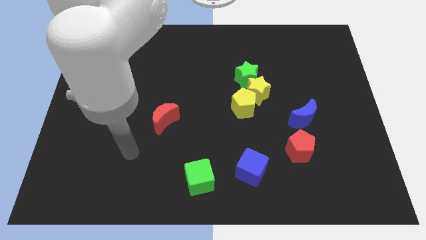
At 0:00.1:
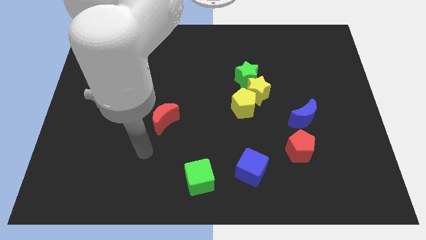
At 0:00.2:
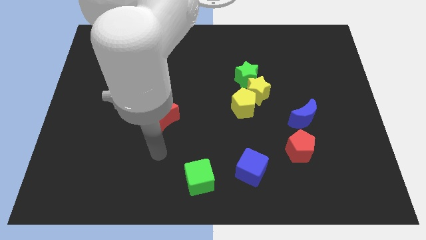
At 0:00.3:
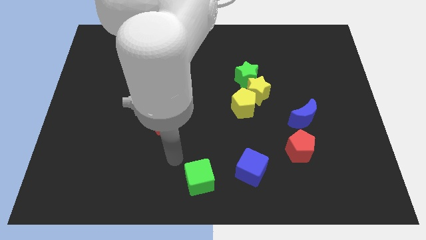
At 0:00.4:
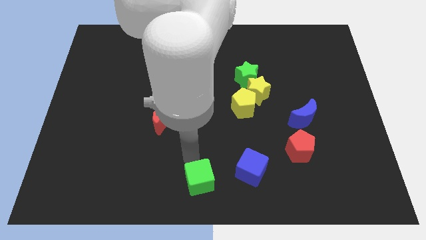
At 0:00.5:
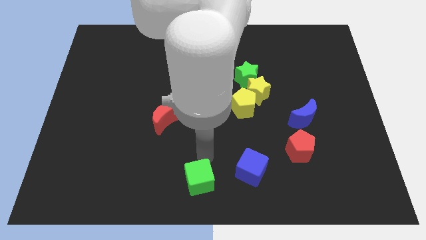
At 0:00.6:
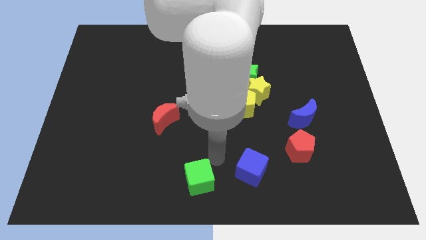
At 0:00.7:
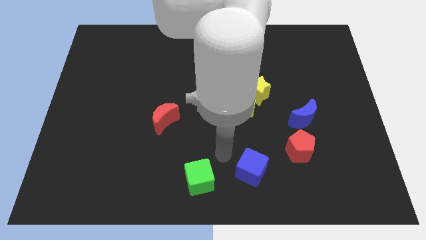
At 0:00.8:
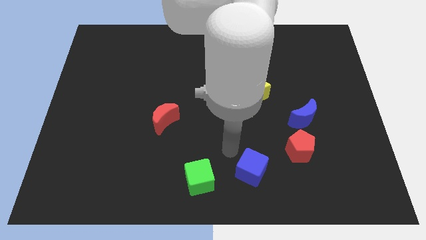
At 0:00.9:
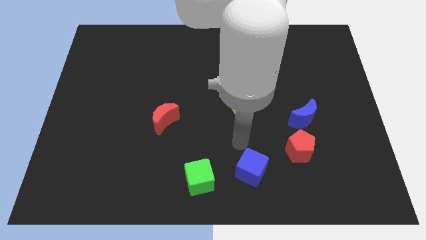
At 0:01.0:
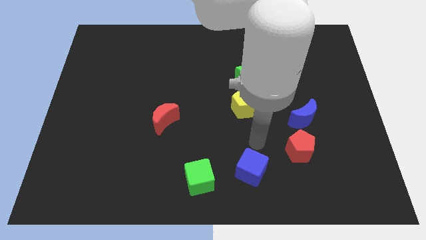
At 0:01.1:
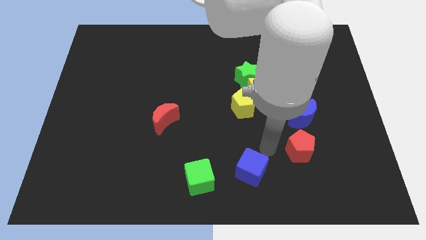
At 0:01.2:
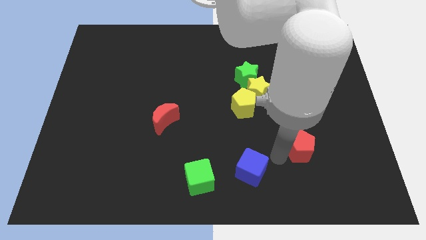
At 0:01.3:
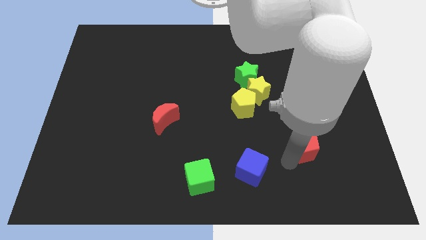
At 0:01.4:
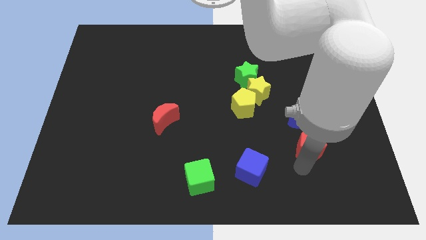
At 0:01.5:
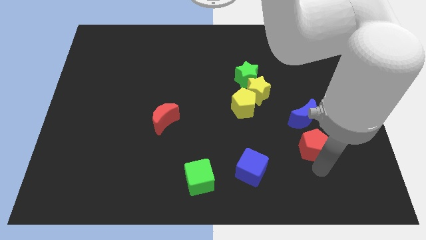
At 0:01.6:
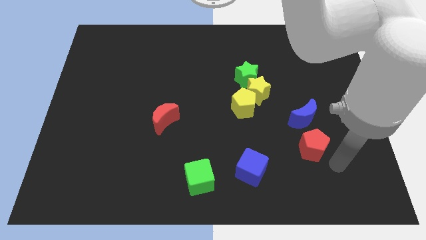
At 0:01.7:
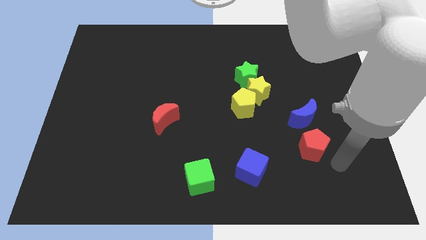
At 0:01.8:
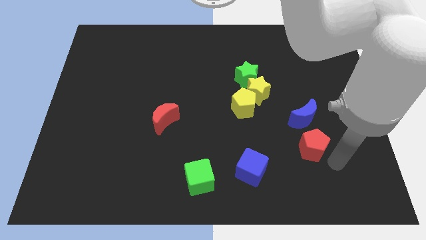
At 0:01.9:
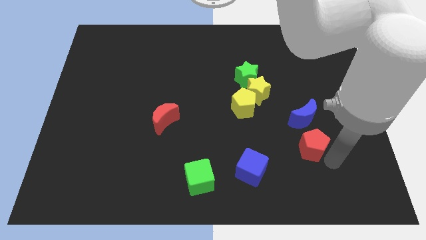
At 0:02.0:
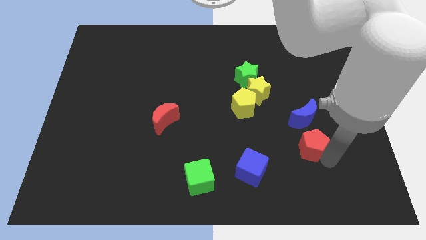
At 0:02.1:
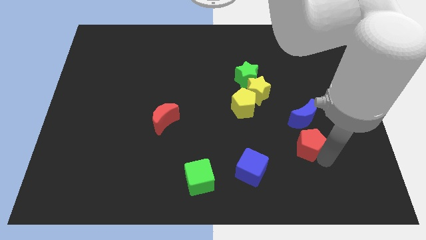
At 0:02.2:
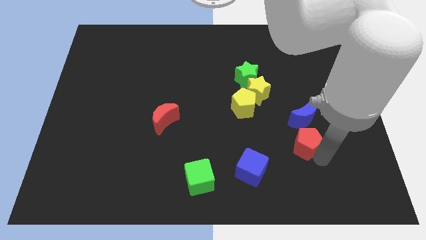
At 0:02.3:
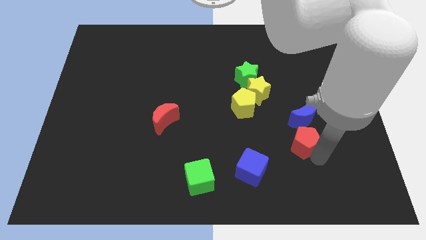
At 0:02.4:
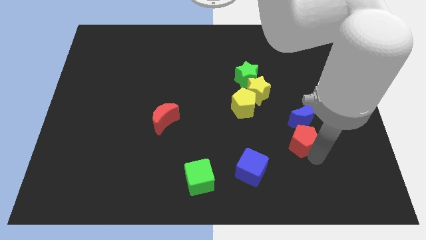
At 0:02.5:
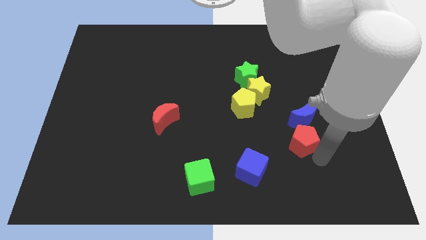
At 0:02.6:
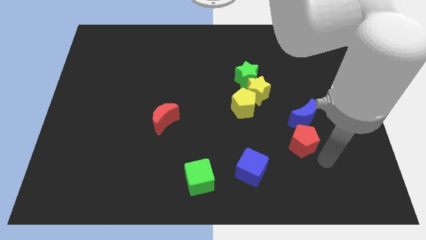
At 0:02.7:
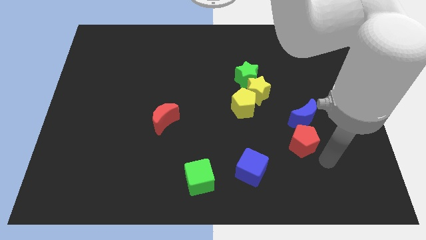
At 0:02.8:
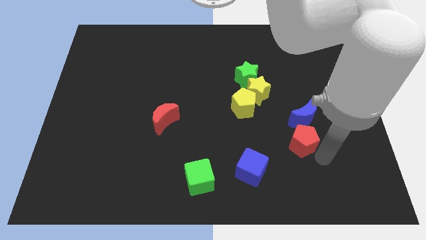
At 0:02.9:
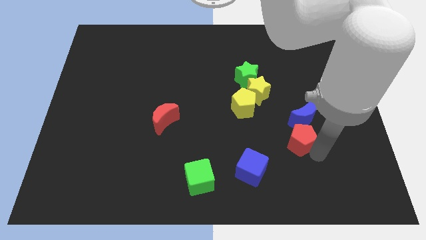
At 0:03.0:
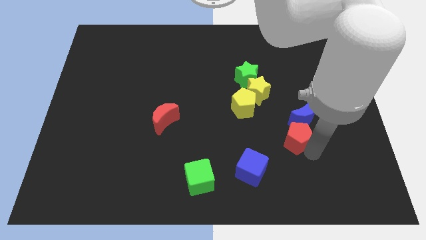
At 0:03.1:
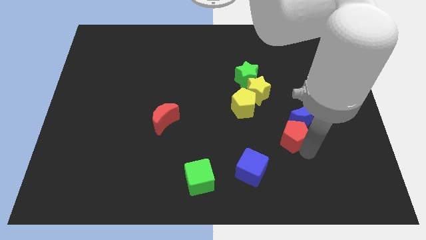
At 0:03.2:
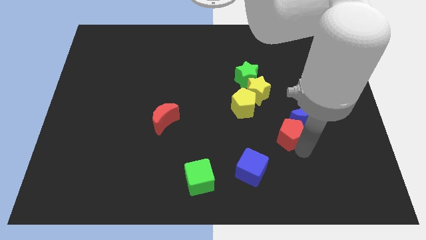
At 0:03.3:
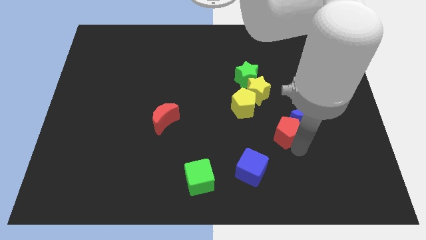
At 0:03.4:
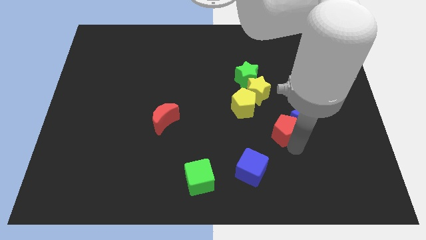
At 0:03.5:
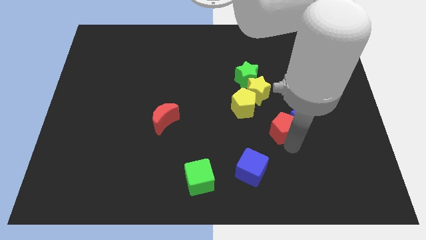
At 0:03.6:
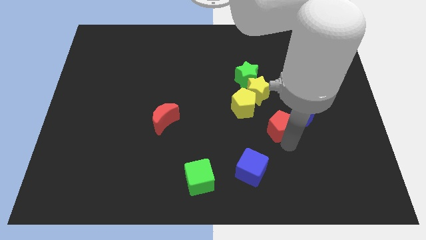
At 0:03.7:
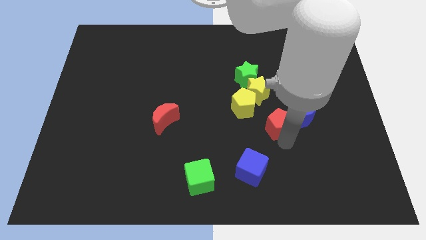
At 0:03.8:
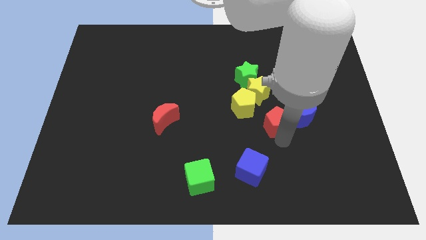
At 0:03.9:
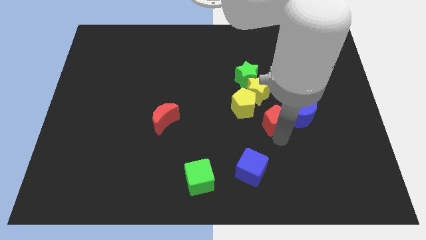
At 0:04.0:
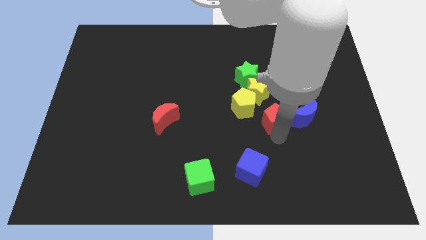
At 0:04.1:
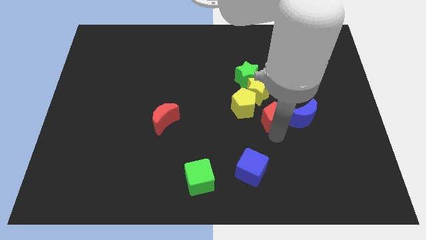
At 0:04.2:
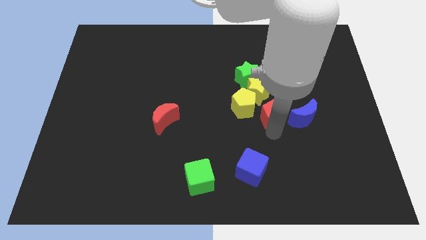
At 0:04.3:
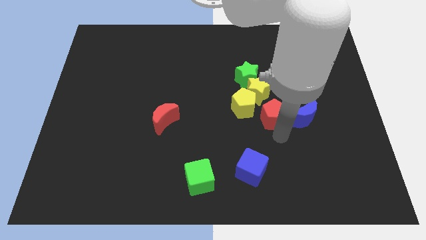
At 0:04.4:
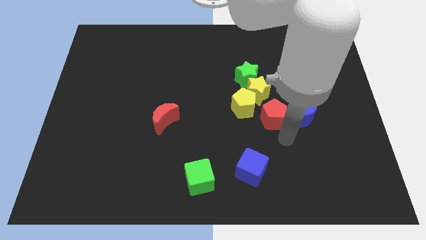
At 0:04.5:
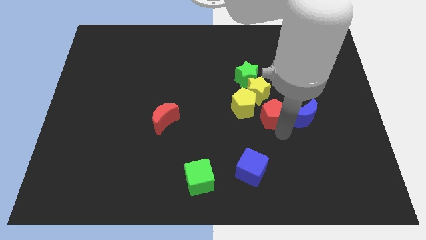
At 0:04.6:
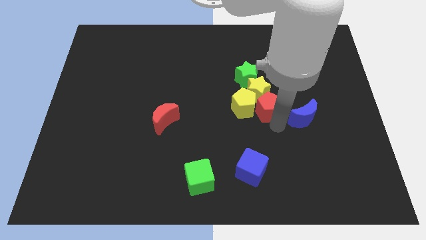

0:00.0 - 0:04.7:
put the red pentagon towards the yellow star

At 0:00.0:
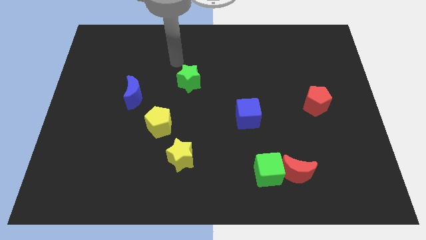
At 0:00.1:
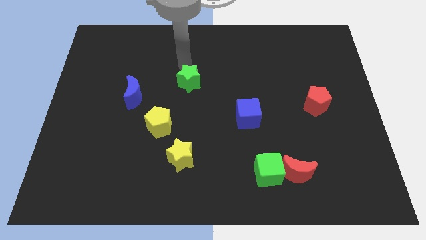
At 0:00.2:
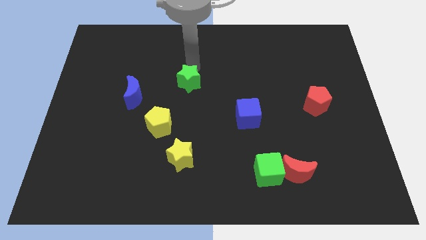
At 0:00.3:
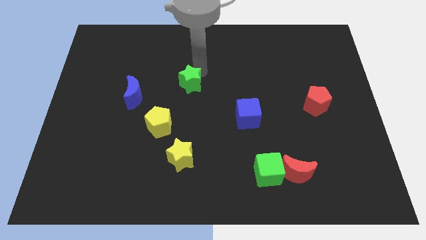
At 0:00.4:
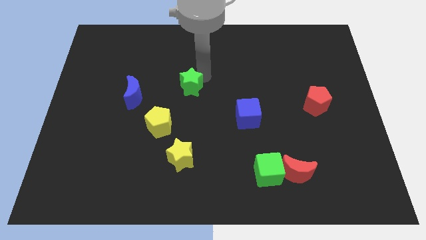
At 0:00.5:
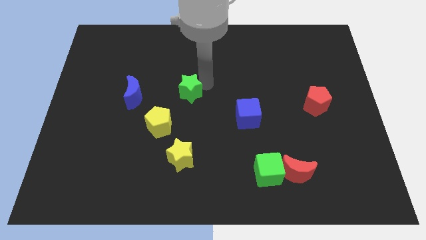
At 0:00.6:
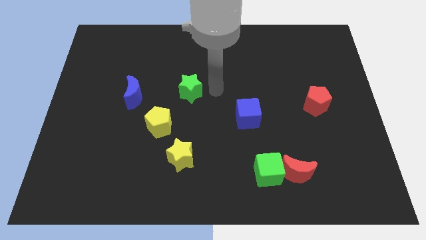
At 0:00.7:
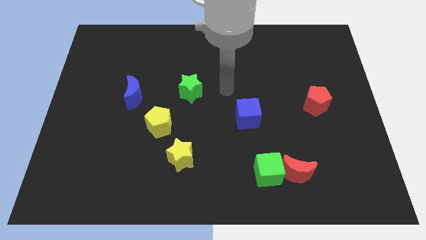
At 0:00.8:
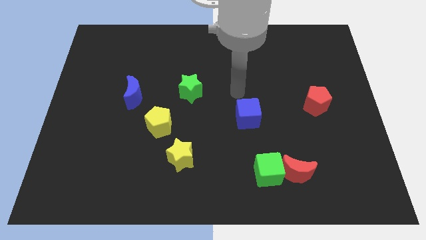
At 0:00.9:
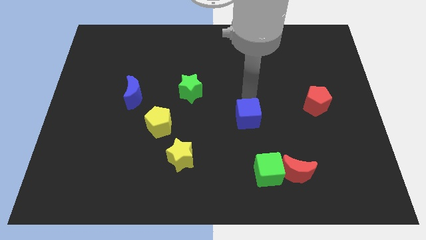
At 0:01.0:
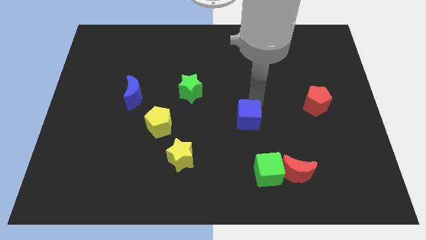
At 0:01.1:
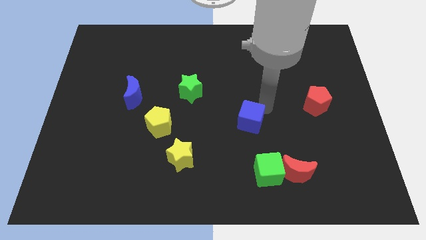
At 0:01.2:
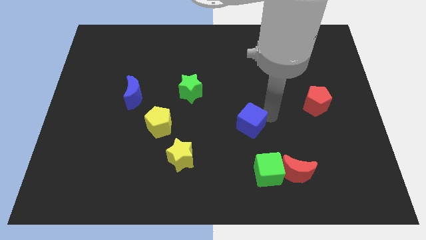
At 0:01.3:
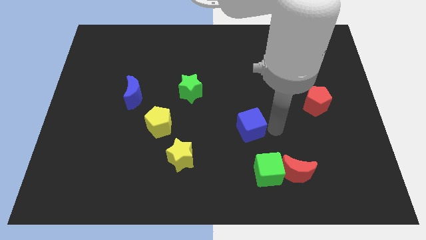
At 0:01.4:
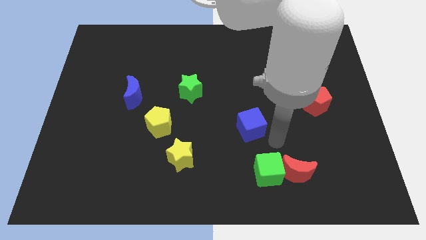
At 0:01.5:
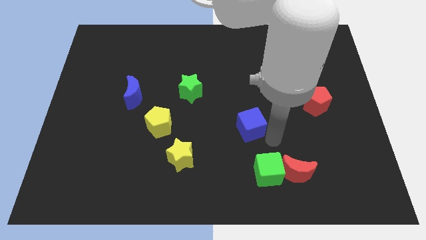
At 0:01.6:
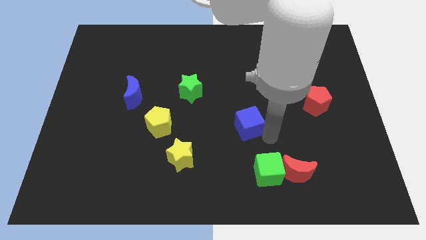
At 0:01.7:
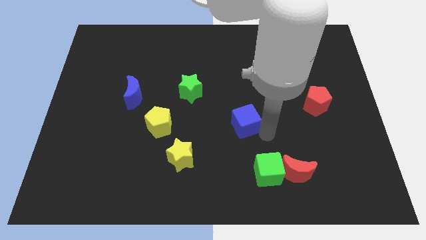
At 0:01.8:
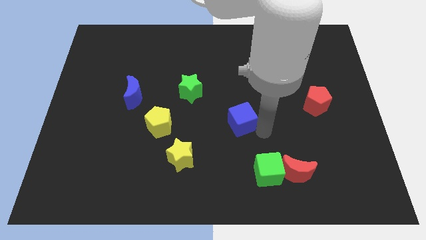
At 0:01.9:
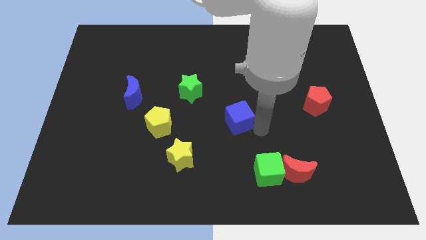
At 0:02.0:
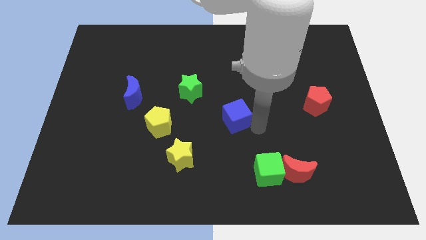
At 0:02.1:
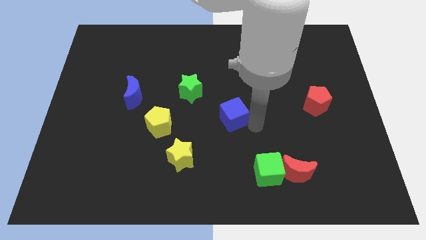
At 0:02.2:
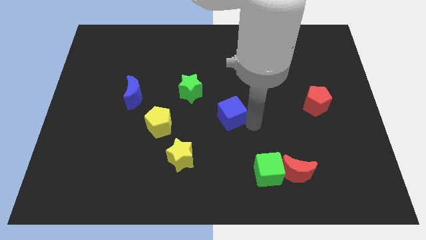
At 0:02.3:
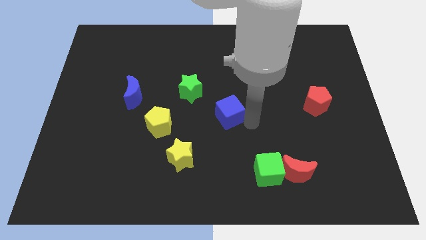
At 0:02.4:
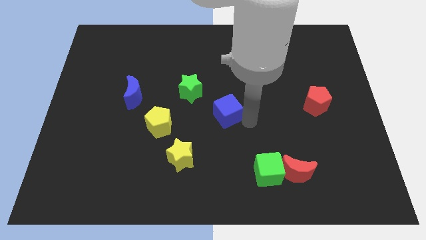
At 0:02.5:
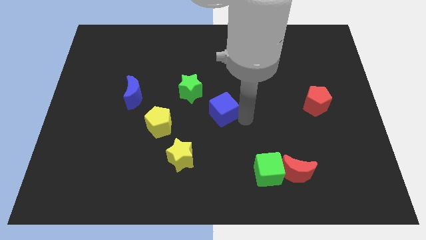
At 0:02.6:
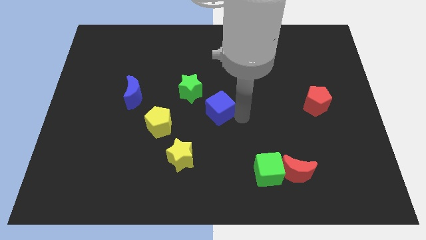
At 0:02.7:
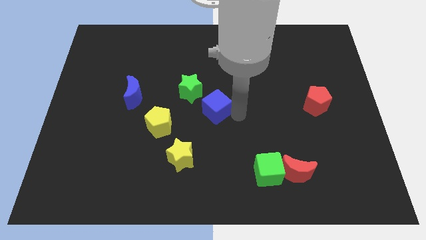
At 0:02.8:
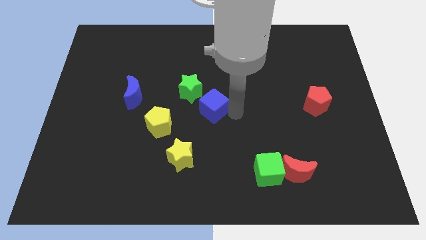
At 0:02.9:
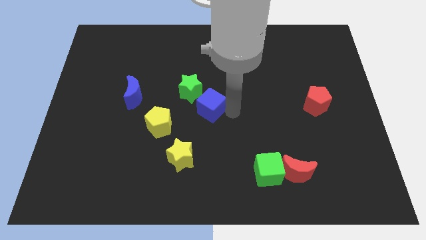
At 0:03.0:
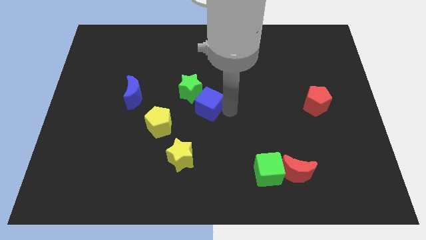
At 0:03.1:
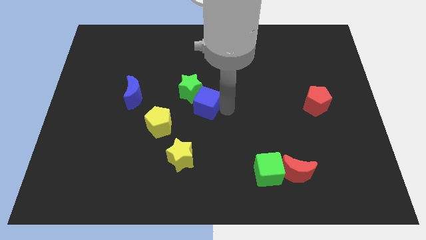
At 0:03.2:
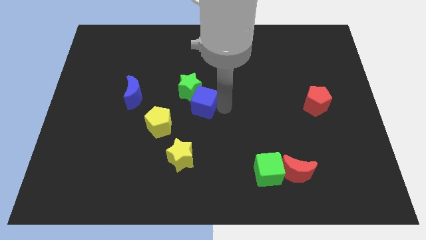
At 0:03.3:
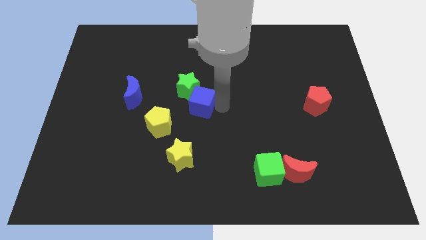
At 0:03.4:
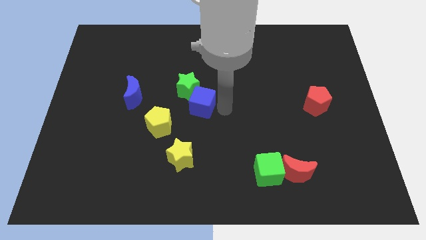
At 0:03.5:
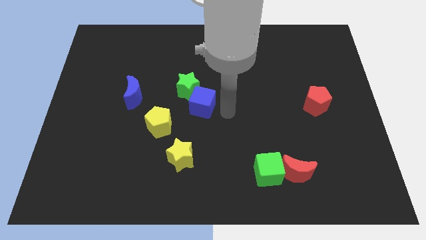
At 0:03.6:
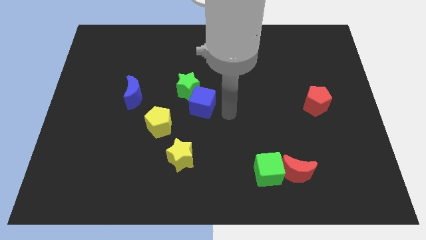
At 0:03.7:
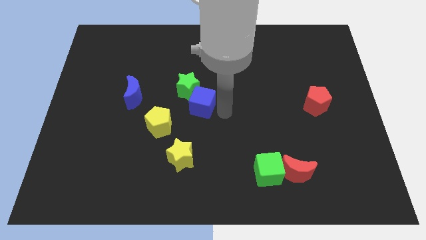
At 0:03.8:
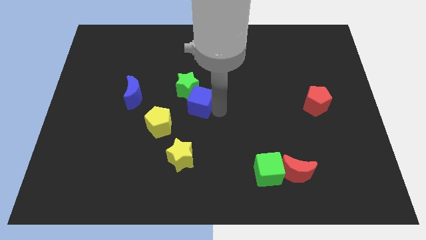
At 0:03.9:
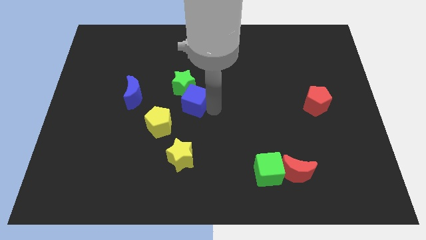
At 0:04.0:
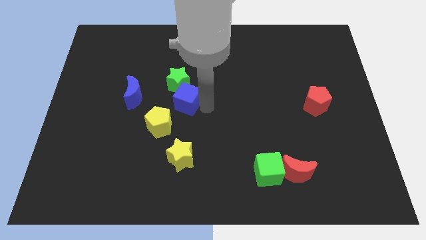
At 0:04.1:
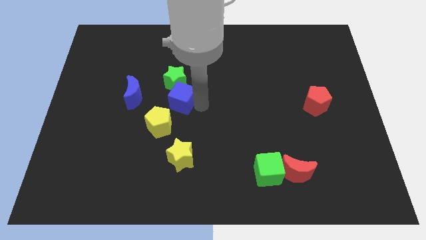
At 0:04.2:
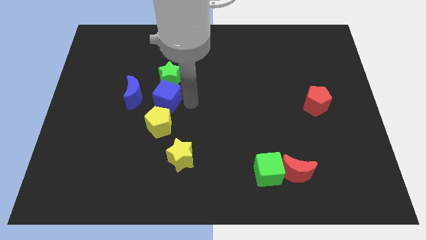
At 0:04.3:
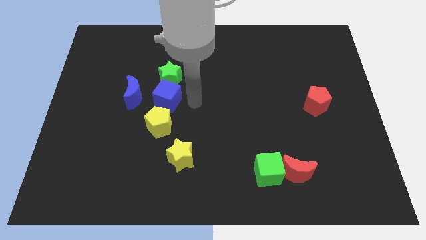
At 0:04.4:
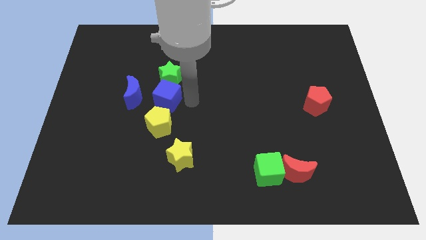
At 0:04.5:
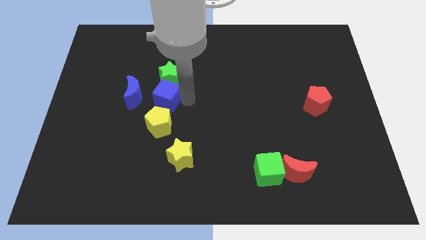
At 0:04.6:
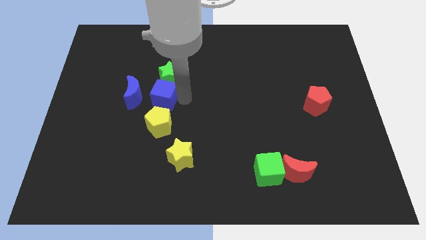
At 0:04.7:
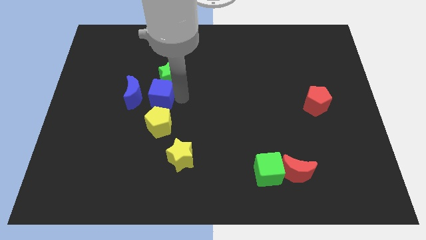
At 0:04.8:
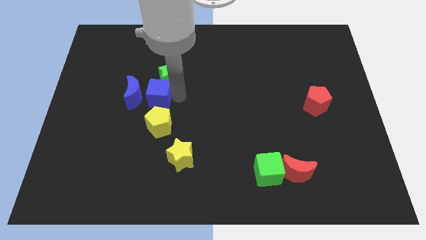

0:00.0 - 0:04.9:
put the blue cube towards the blue moon
